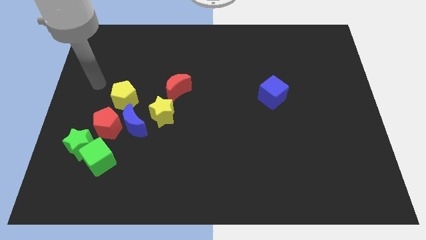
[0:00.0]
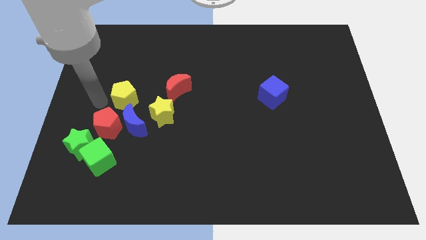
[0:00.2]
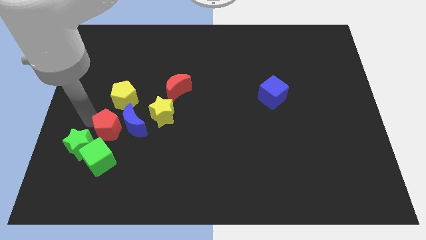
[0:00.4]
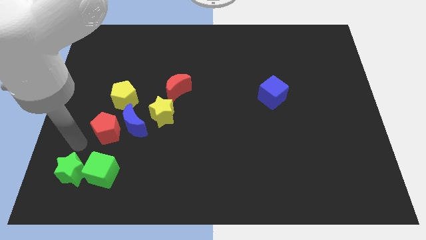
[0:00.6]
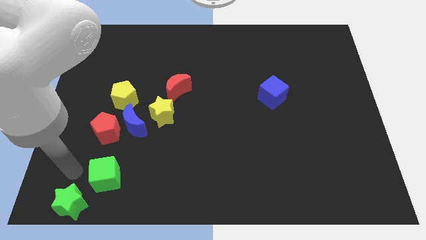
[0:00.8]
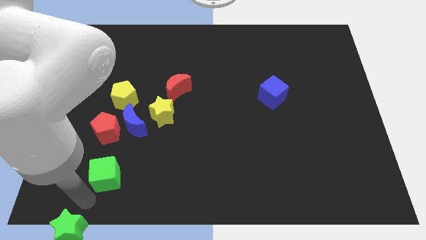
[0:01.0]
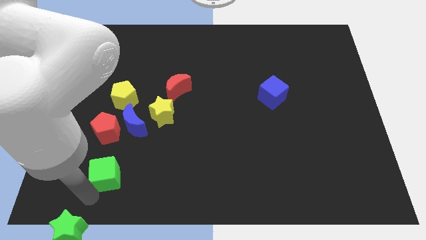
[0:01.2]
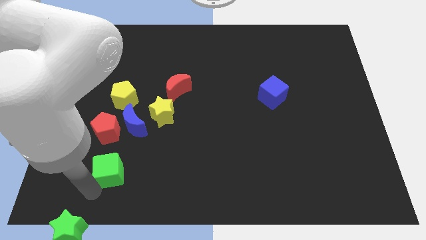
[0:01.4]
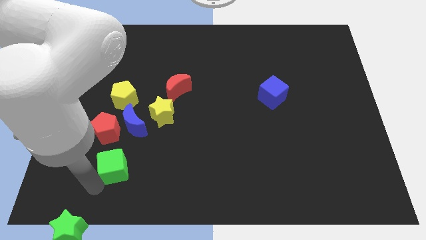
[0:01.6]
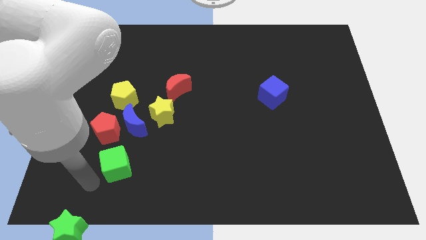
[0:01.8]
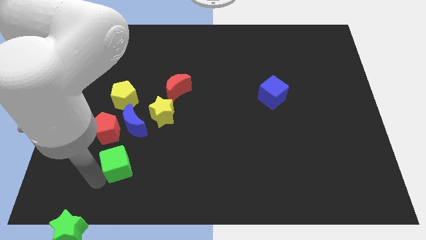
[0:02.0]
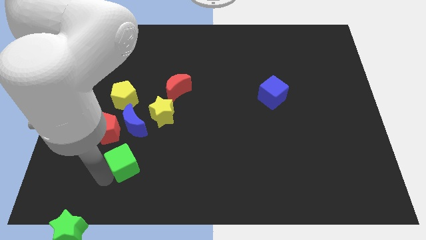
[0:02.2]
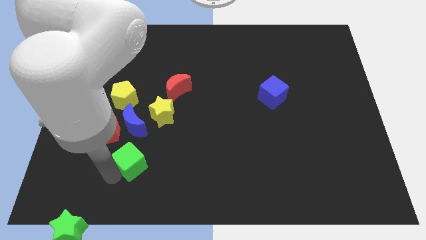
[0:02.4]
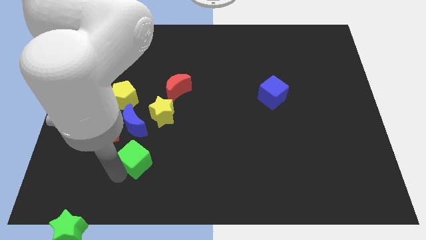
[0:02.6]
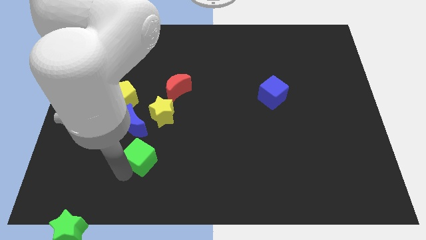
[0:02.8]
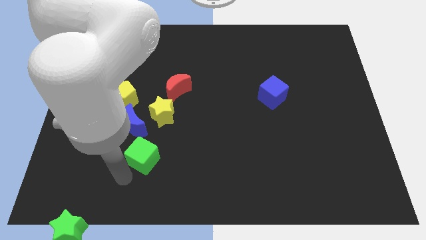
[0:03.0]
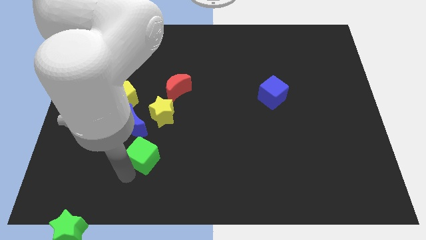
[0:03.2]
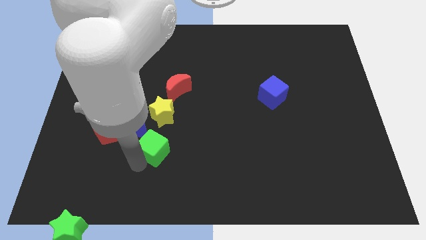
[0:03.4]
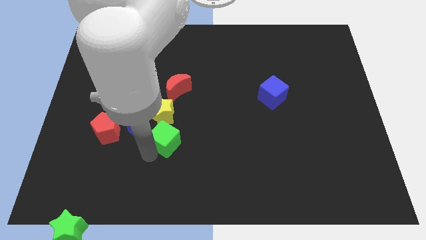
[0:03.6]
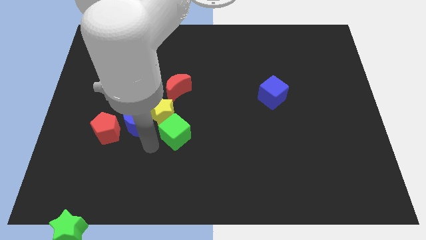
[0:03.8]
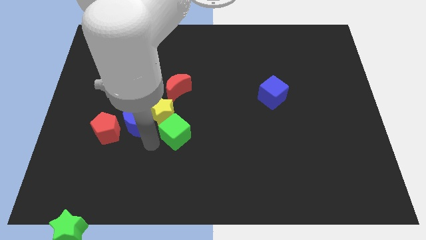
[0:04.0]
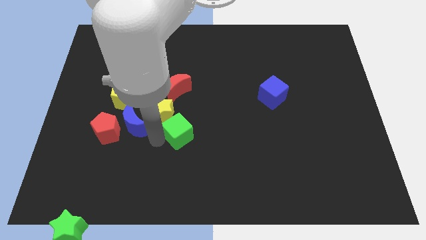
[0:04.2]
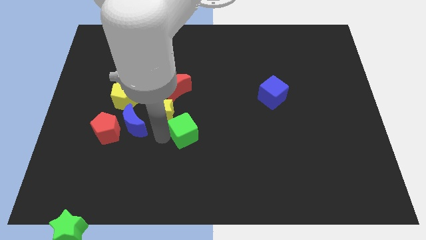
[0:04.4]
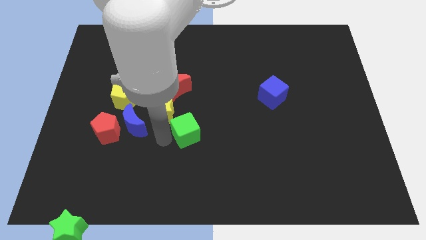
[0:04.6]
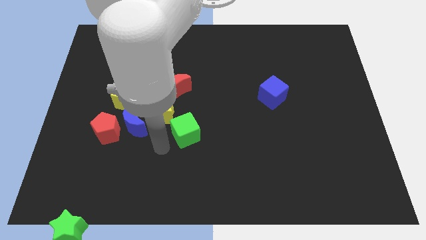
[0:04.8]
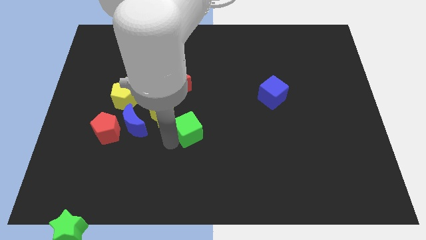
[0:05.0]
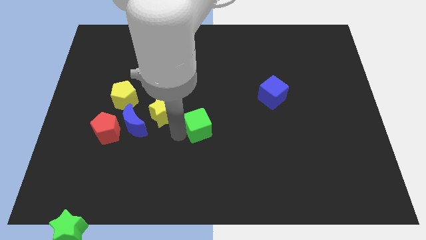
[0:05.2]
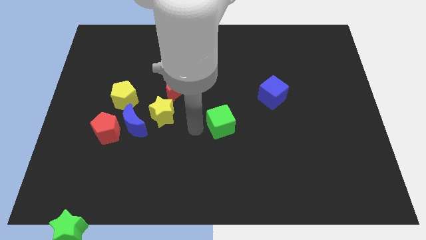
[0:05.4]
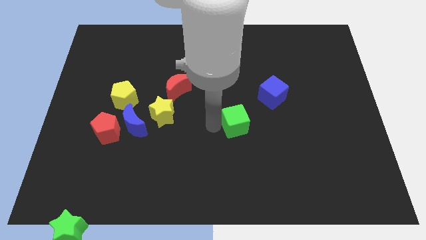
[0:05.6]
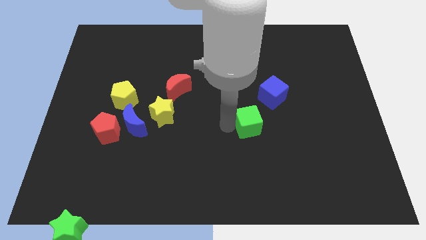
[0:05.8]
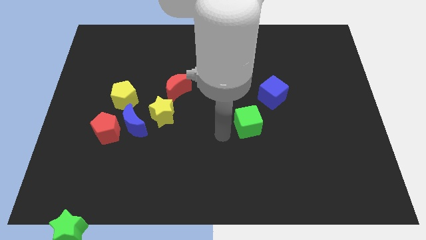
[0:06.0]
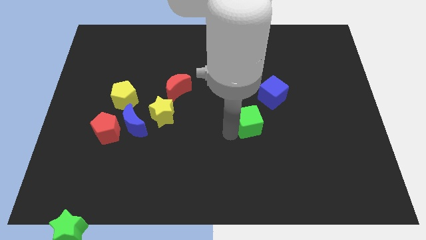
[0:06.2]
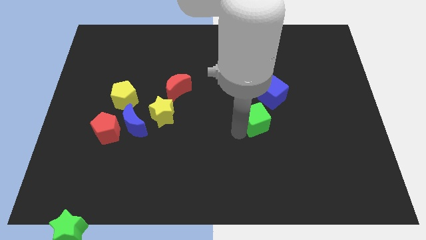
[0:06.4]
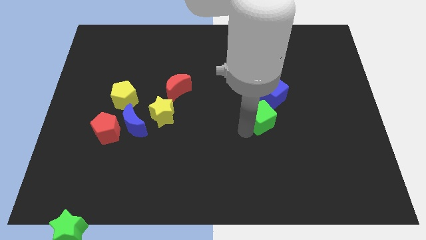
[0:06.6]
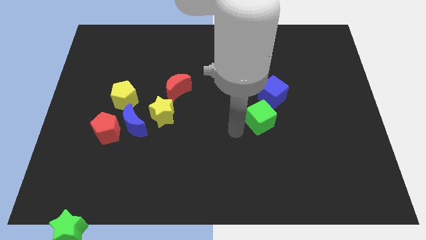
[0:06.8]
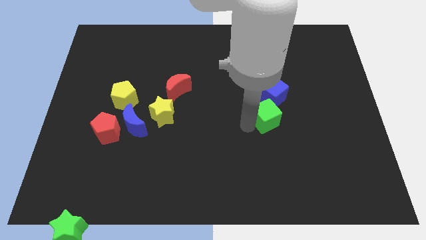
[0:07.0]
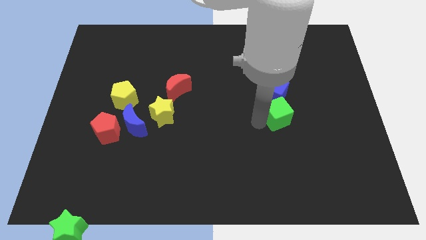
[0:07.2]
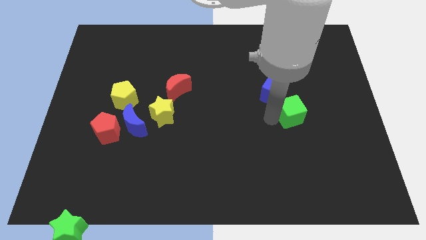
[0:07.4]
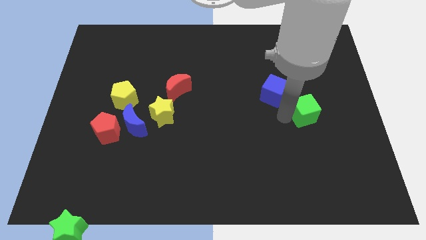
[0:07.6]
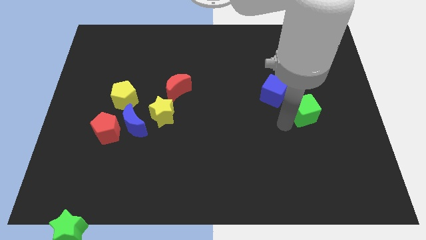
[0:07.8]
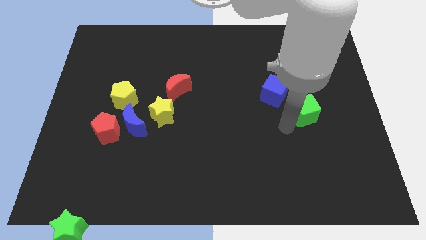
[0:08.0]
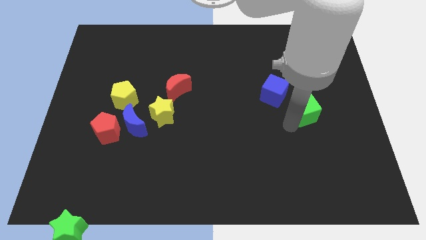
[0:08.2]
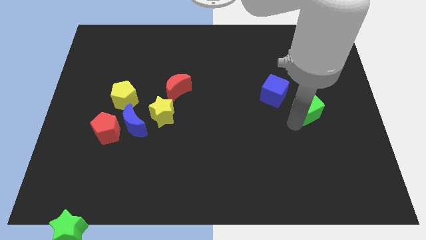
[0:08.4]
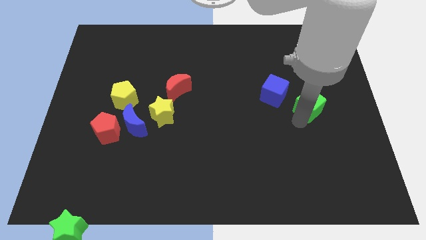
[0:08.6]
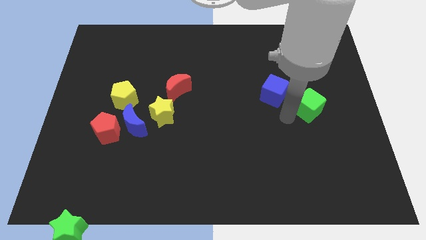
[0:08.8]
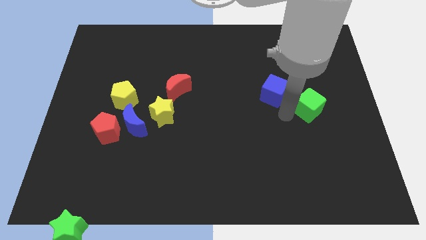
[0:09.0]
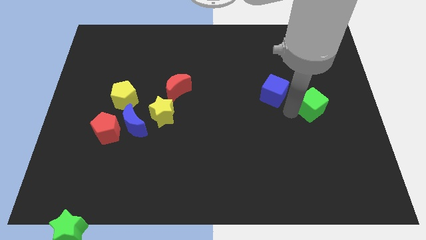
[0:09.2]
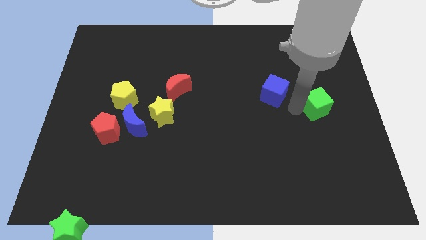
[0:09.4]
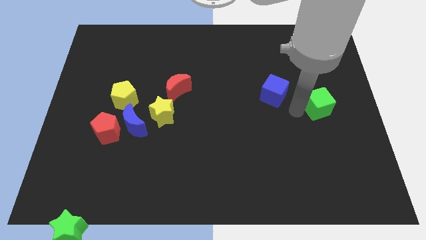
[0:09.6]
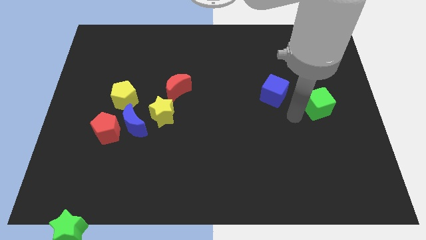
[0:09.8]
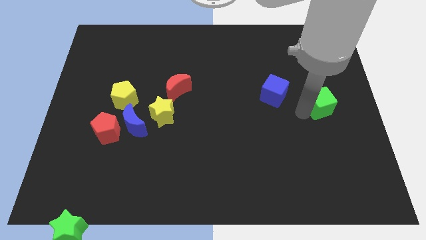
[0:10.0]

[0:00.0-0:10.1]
push the green cube to the right side

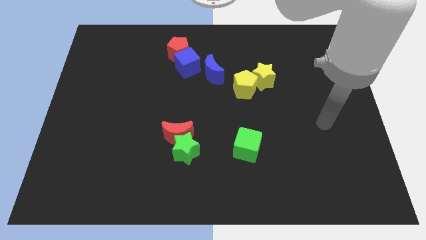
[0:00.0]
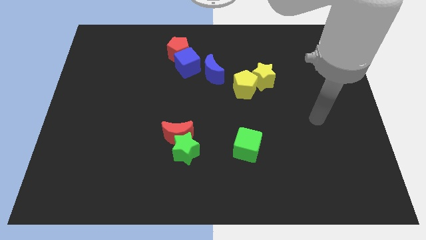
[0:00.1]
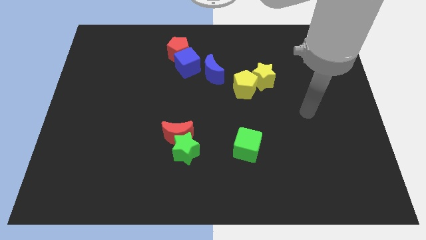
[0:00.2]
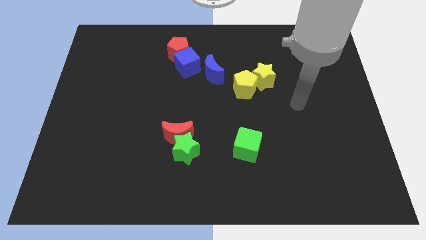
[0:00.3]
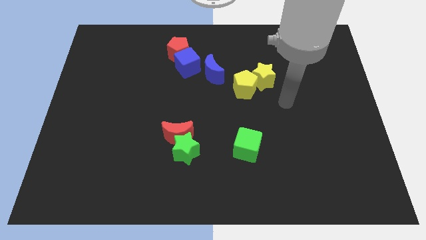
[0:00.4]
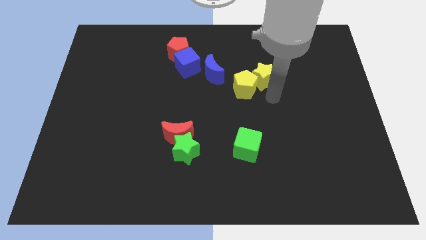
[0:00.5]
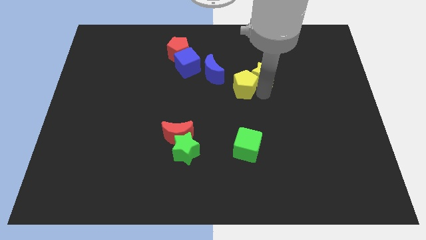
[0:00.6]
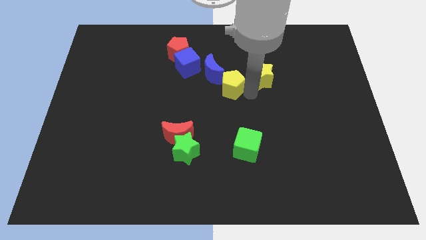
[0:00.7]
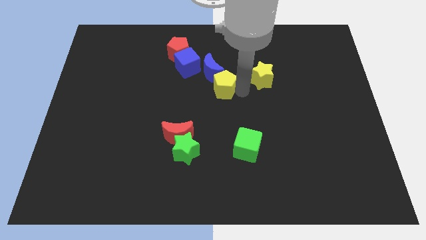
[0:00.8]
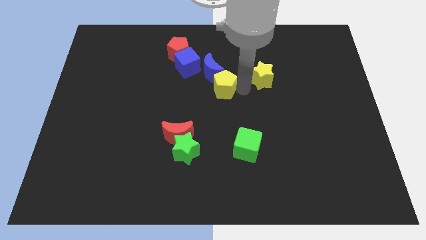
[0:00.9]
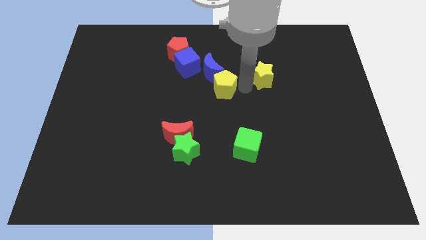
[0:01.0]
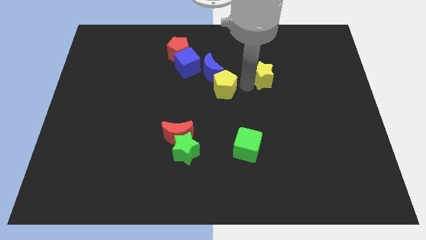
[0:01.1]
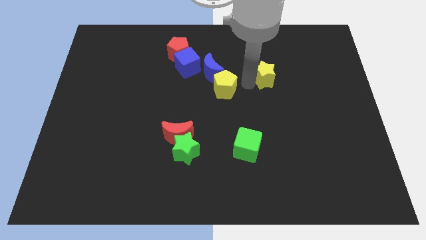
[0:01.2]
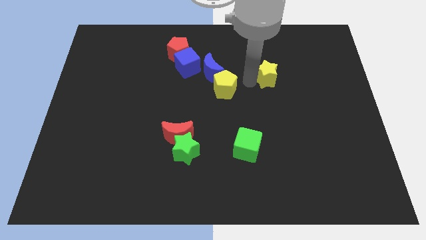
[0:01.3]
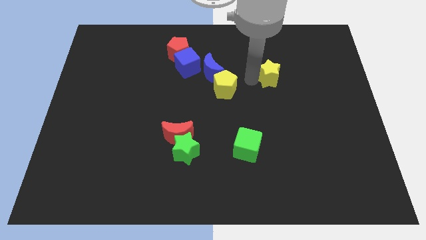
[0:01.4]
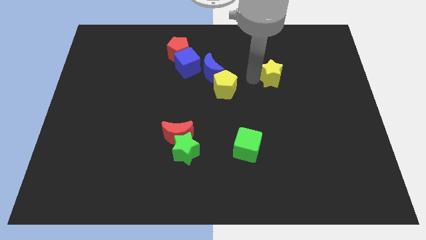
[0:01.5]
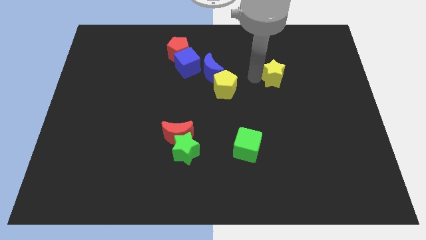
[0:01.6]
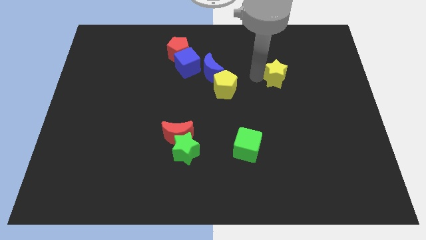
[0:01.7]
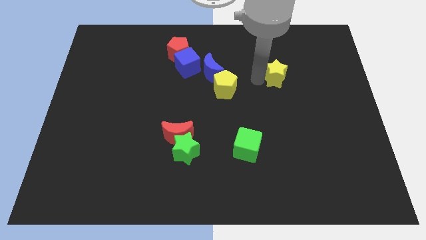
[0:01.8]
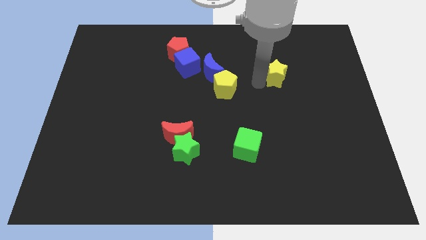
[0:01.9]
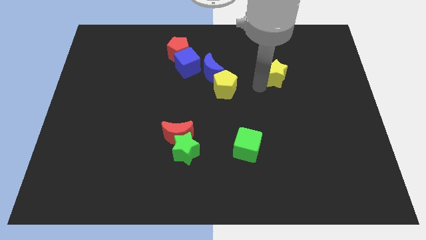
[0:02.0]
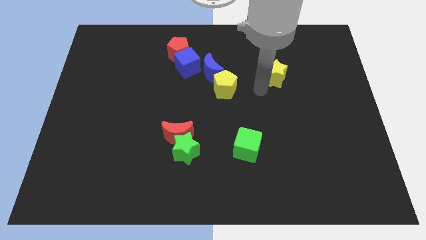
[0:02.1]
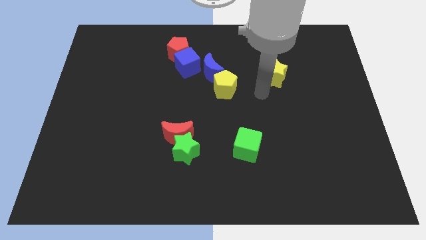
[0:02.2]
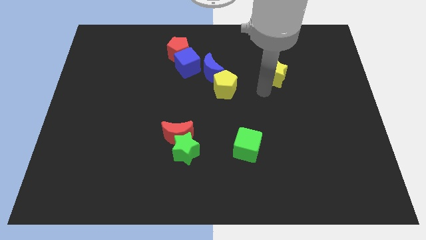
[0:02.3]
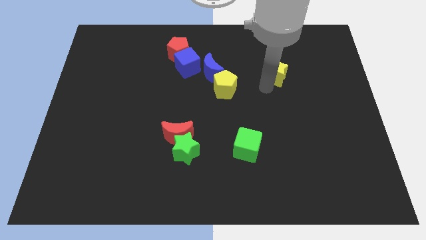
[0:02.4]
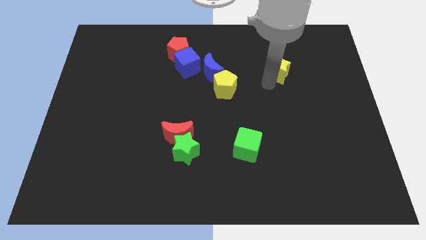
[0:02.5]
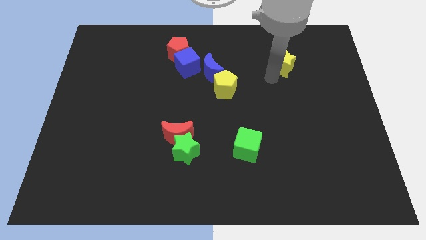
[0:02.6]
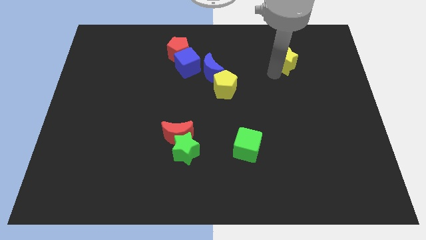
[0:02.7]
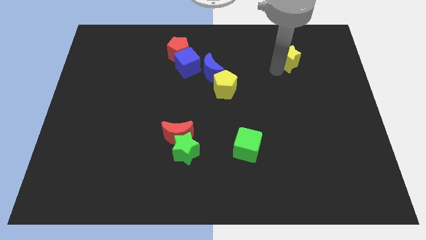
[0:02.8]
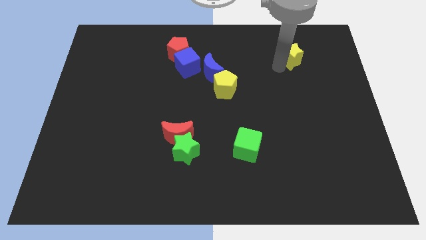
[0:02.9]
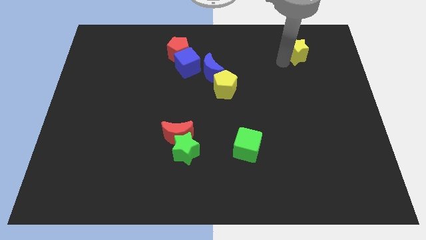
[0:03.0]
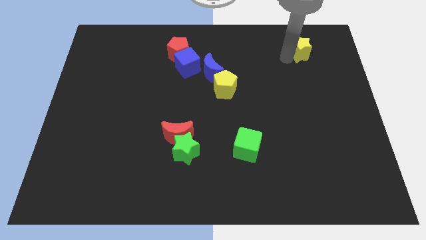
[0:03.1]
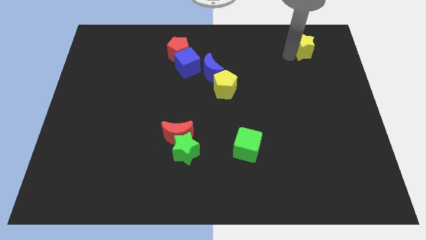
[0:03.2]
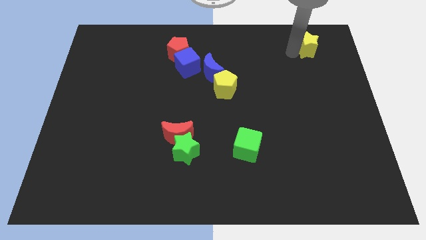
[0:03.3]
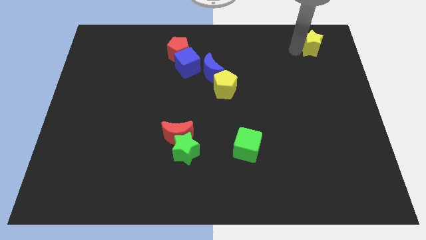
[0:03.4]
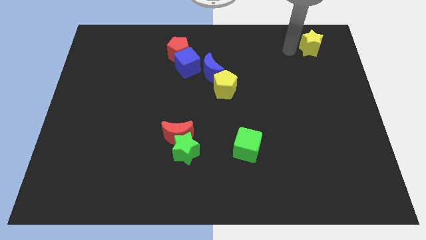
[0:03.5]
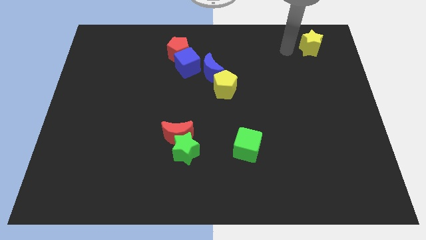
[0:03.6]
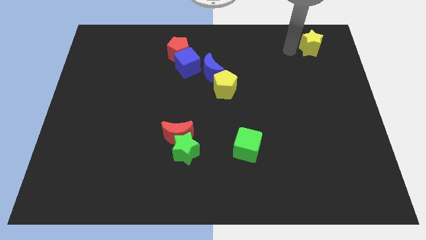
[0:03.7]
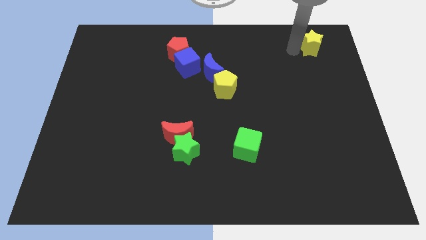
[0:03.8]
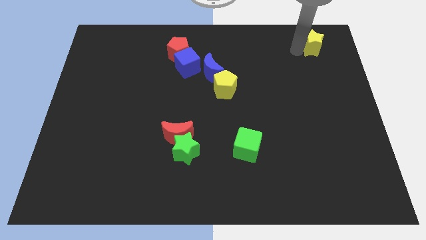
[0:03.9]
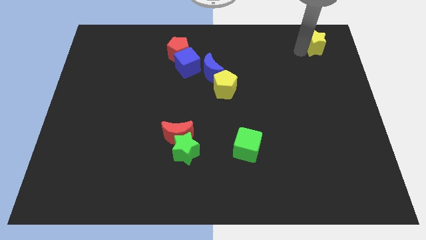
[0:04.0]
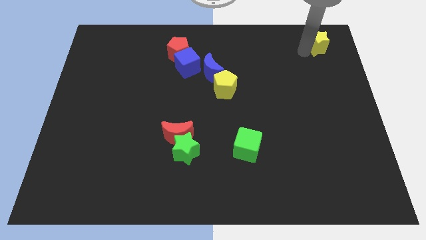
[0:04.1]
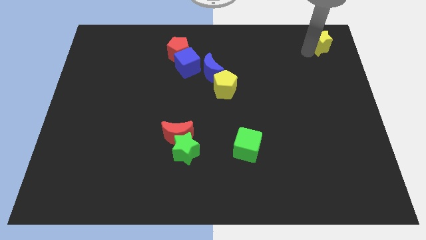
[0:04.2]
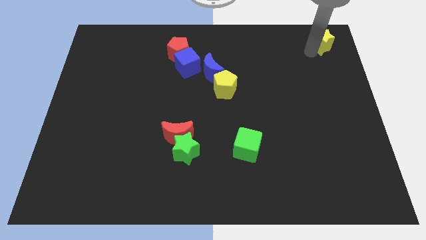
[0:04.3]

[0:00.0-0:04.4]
slide the yellow star to the top right
